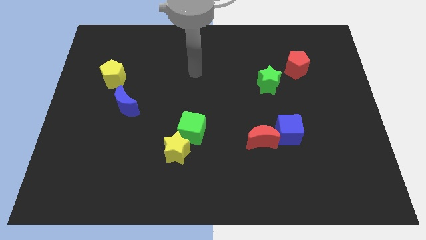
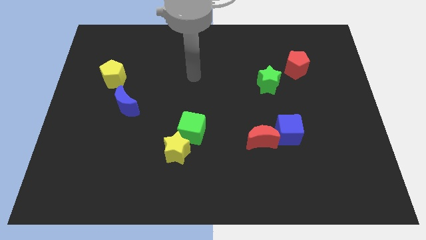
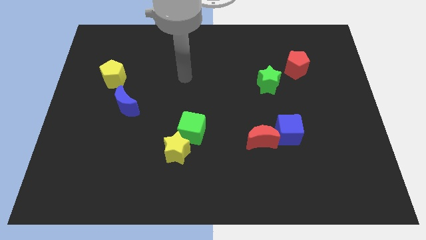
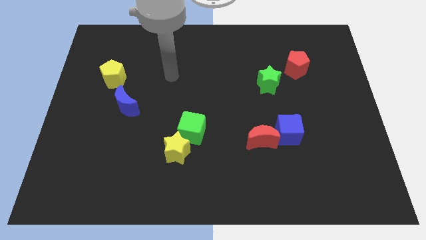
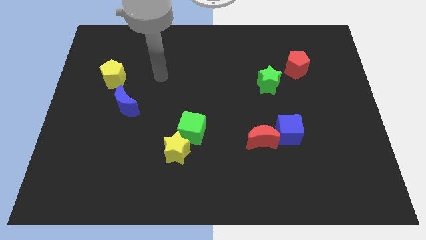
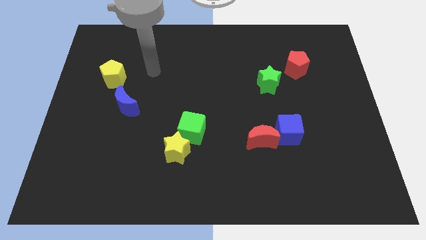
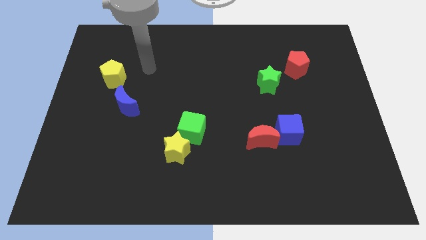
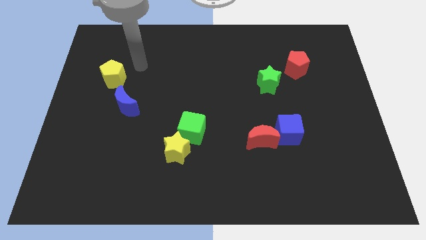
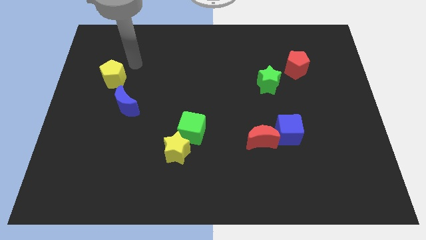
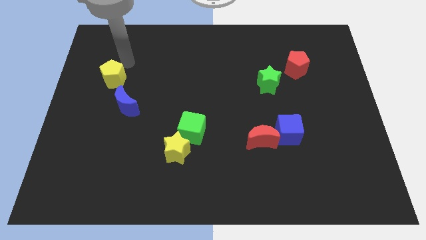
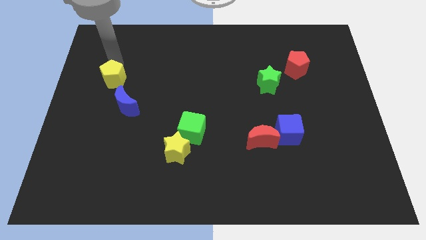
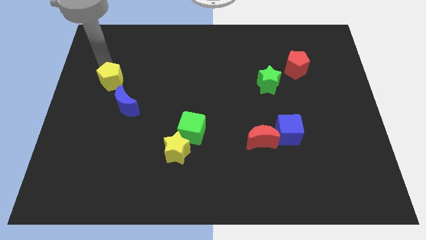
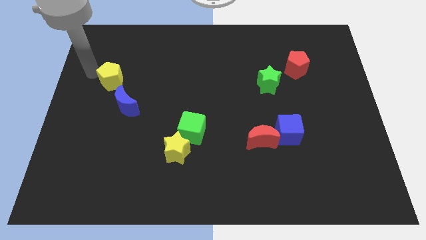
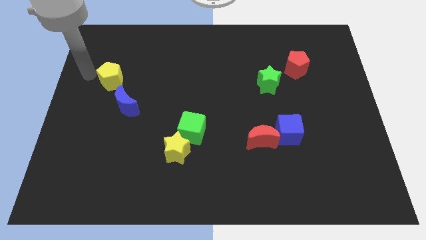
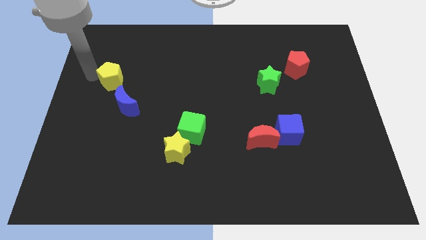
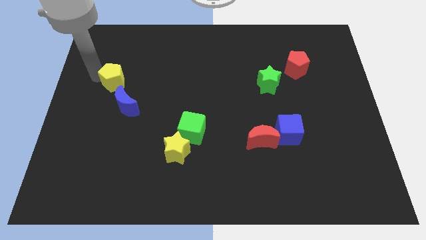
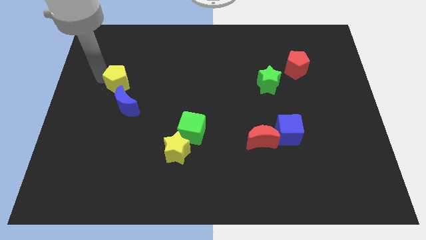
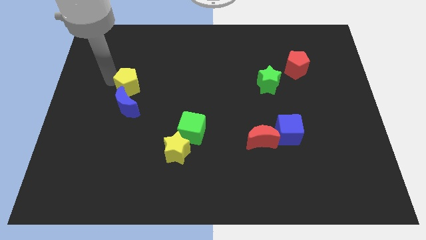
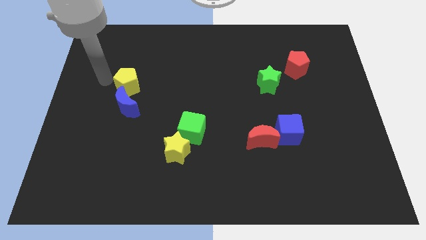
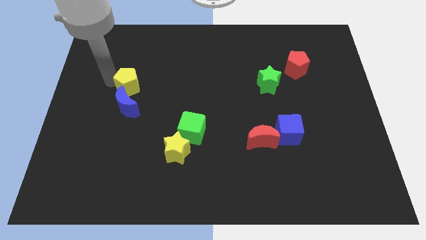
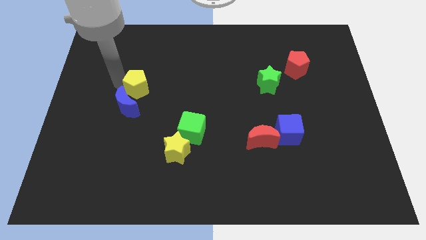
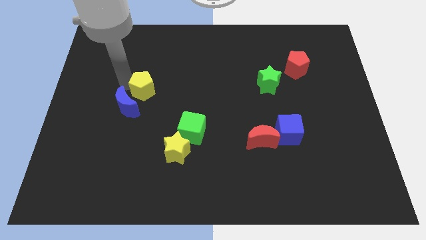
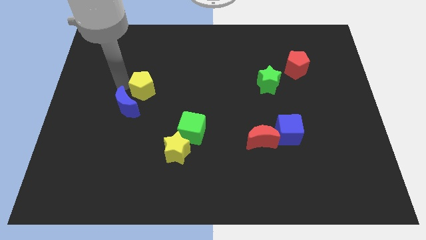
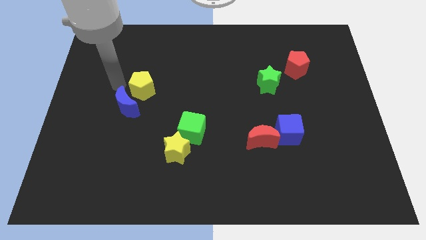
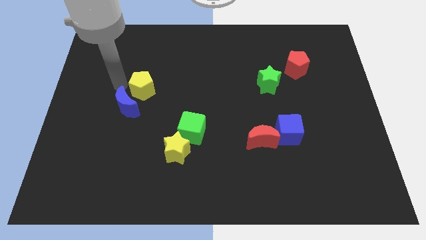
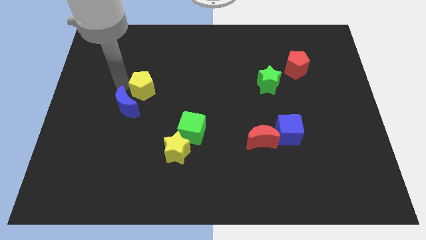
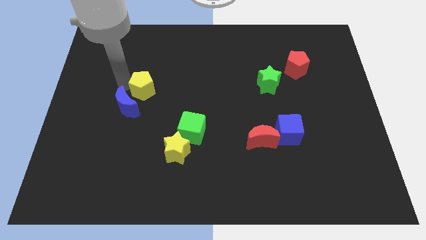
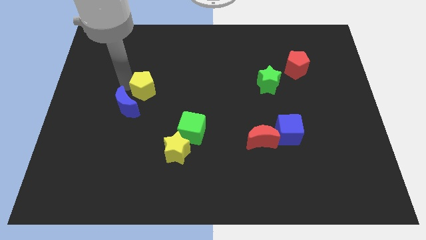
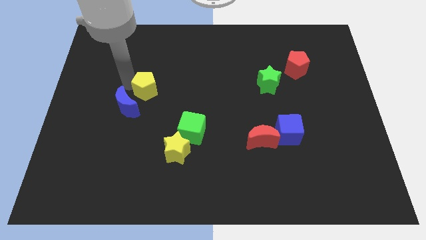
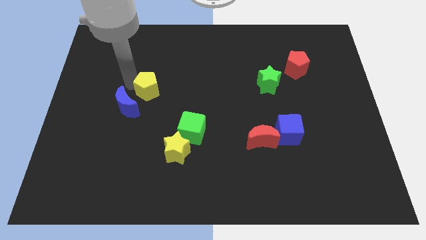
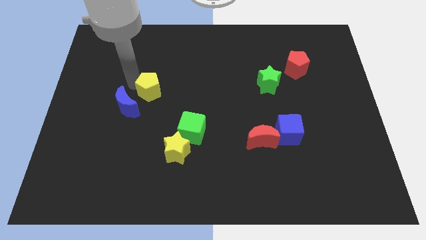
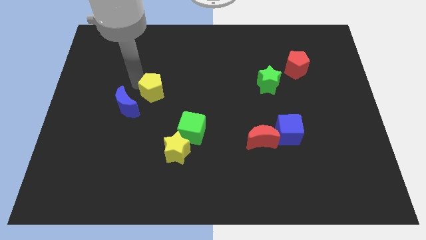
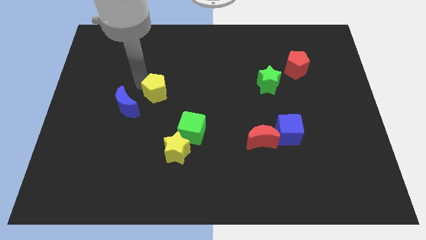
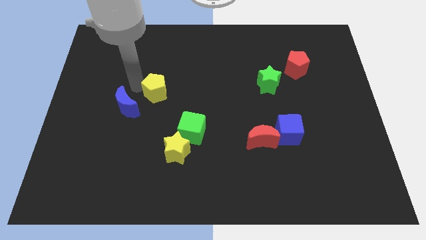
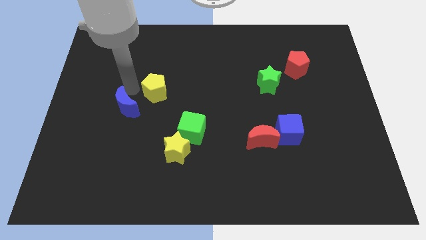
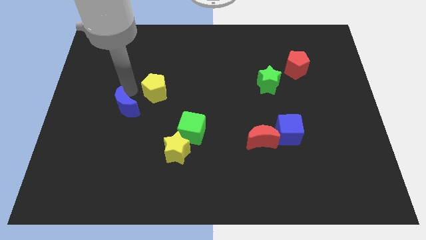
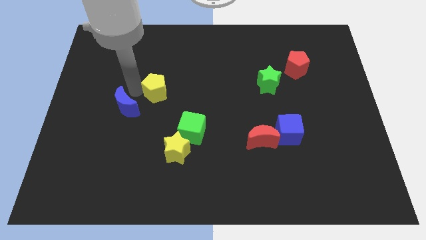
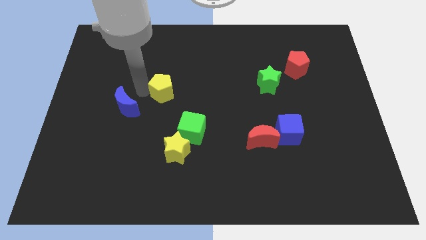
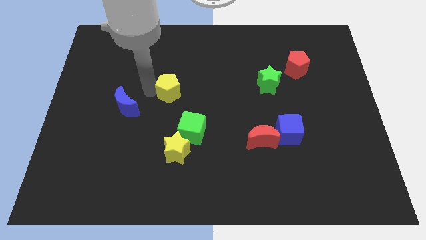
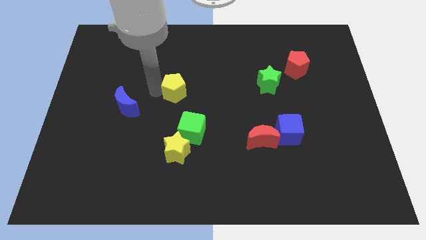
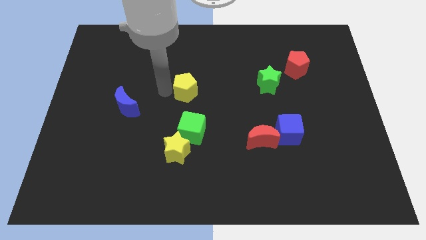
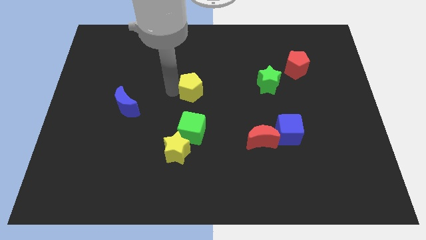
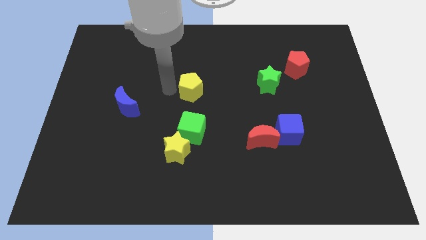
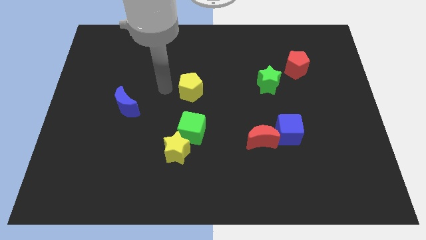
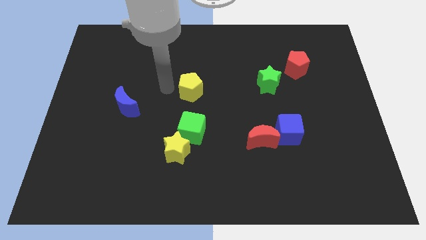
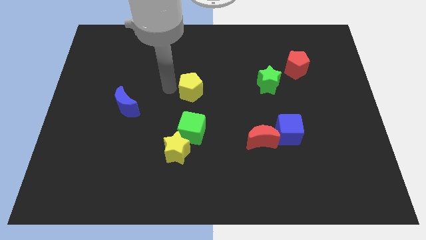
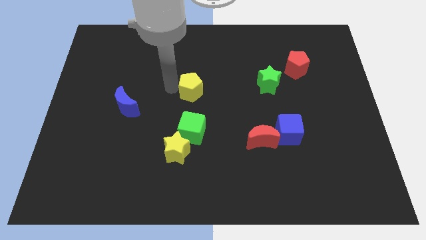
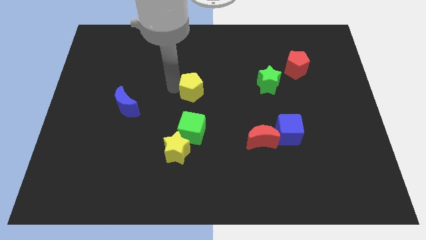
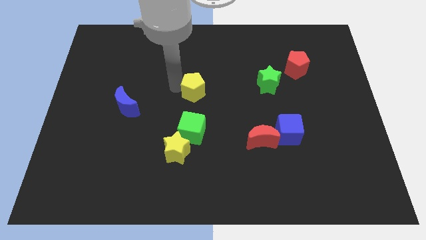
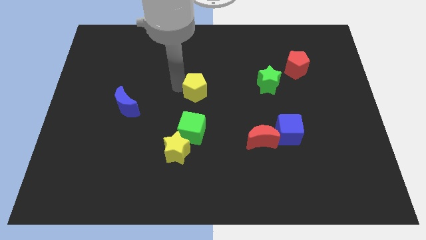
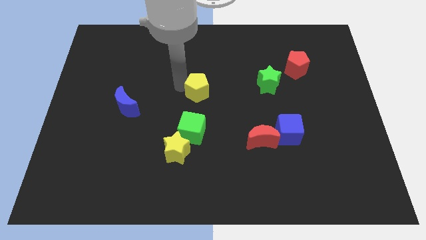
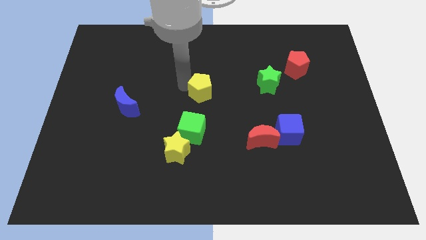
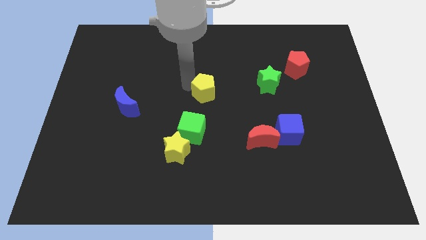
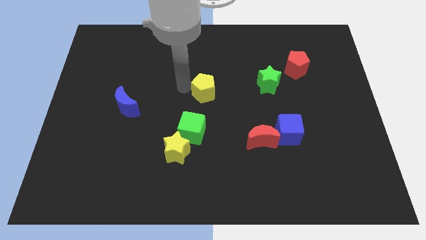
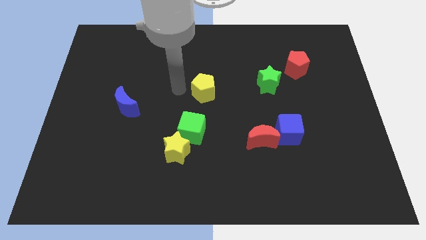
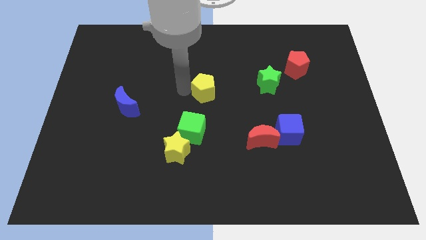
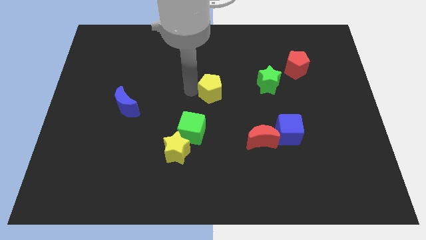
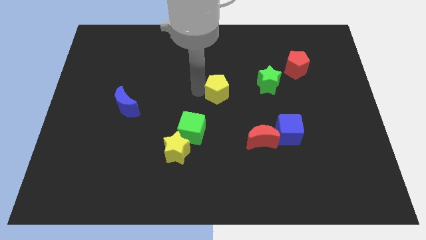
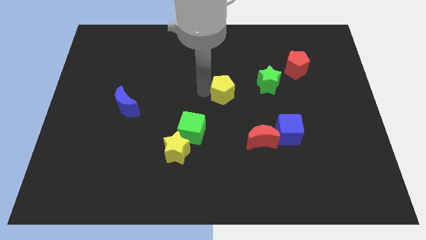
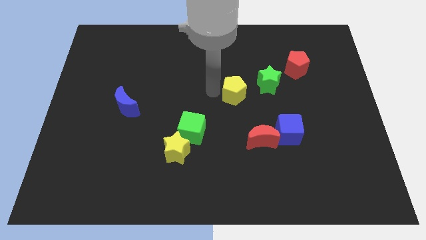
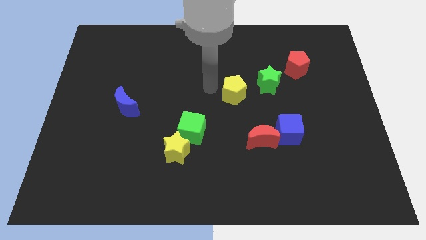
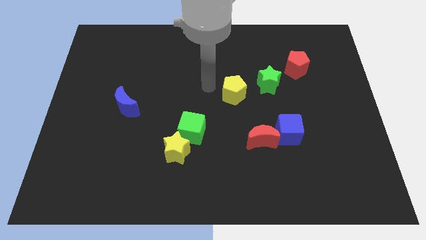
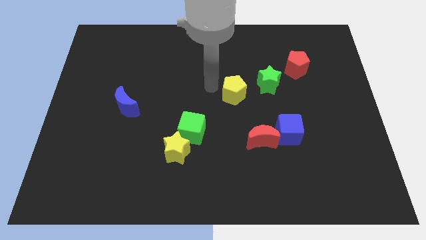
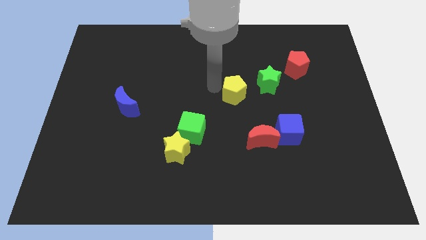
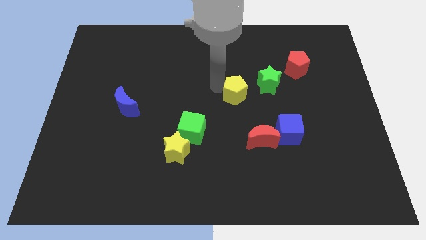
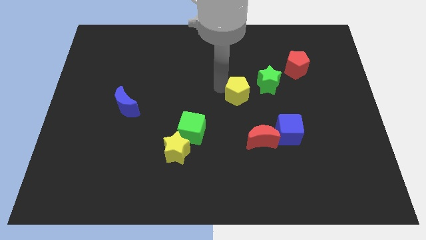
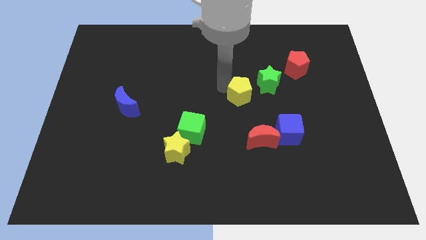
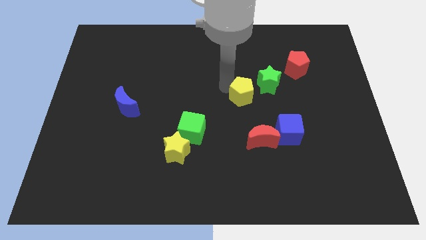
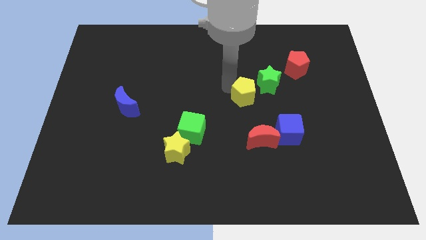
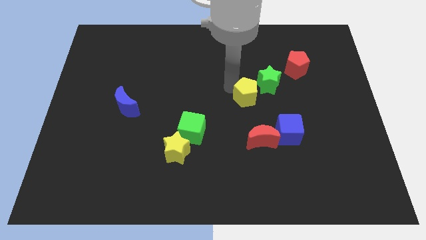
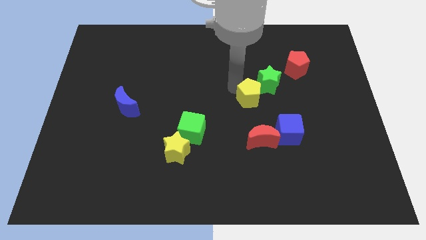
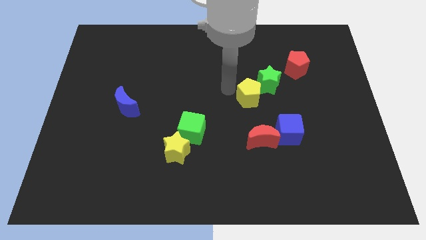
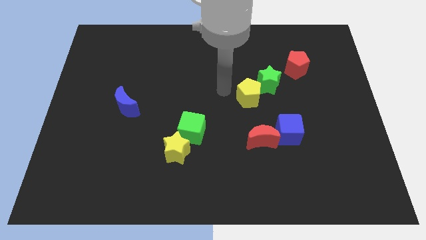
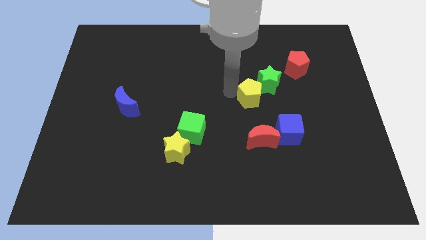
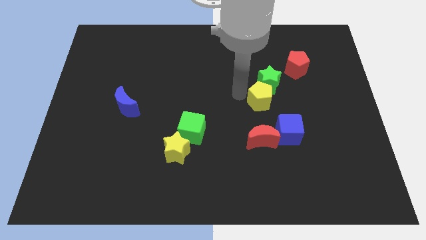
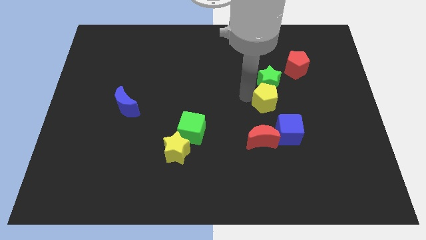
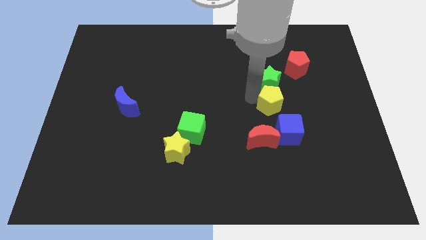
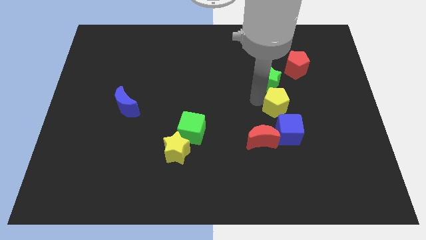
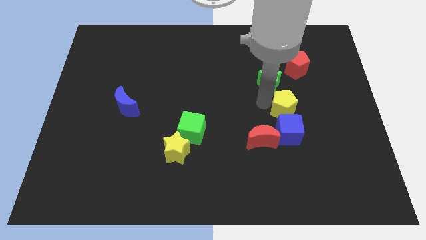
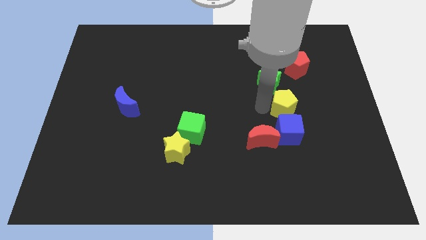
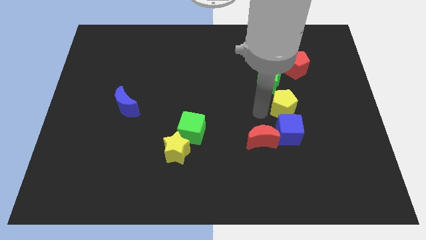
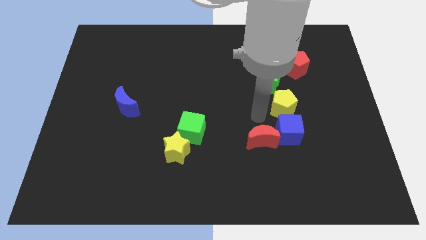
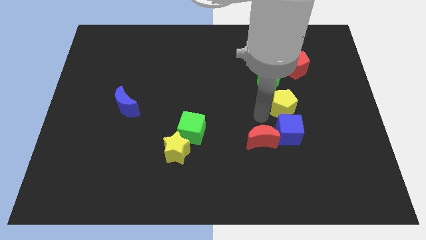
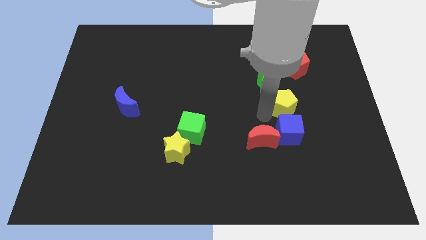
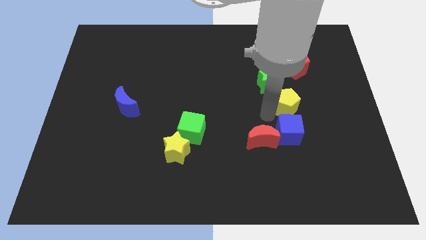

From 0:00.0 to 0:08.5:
put the yellow pentagon to the bottom side of the red pentagon
